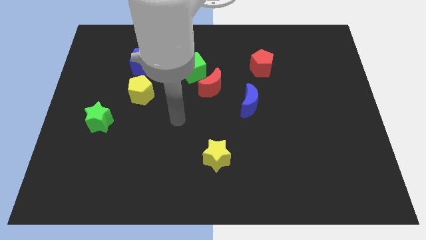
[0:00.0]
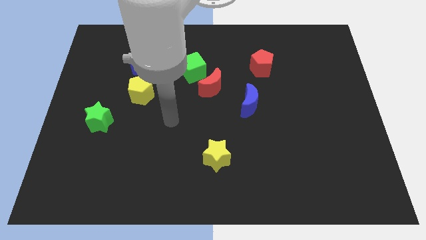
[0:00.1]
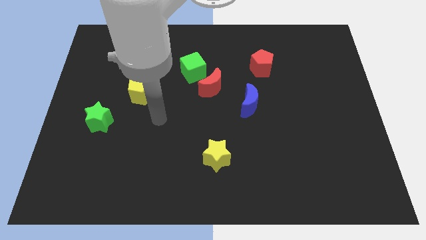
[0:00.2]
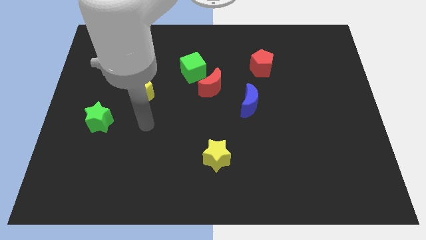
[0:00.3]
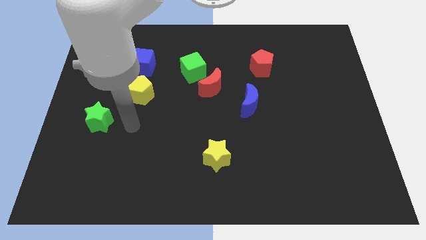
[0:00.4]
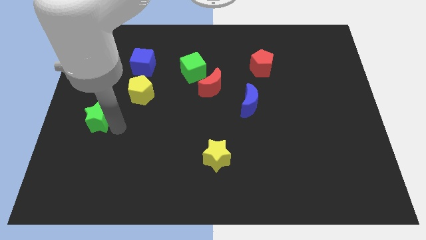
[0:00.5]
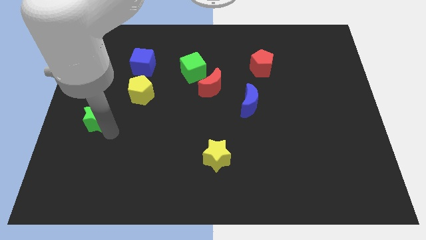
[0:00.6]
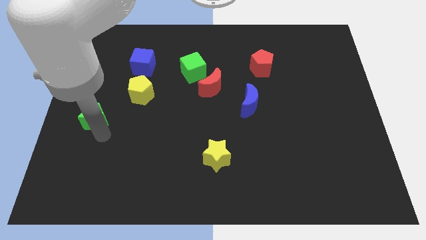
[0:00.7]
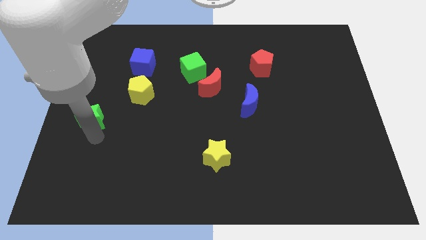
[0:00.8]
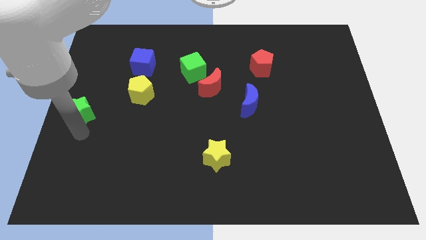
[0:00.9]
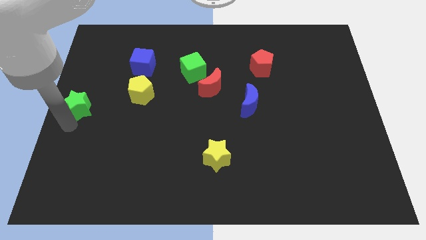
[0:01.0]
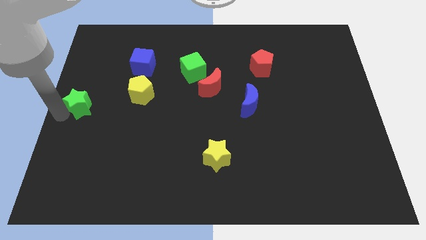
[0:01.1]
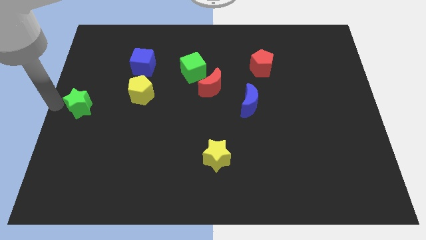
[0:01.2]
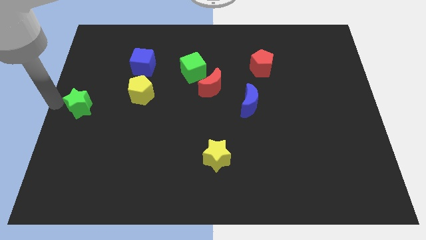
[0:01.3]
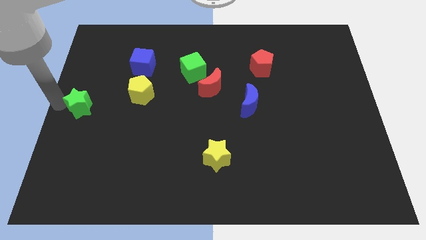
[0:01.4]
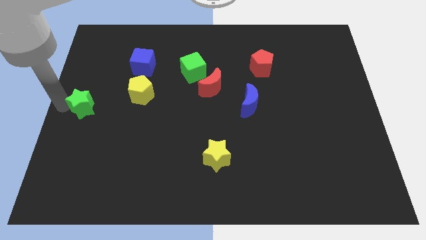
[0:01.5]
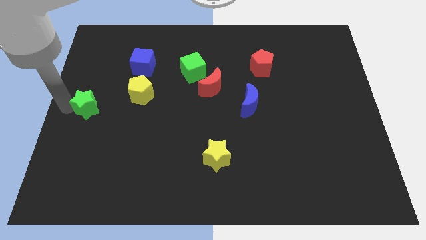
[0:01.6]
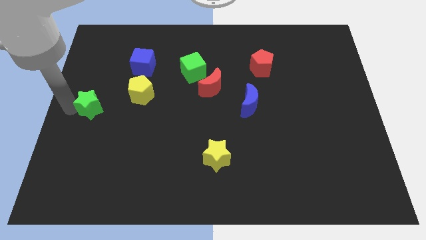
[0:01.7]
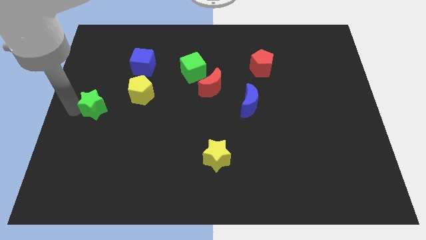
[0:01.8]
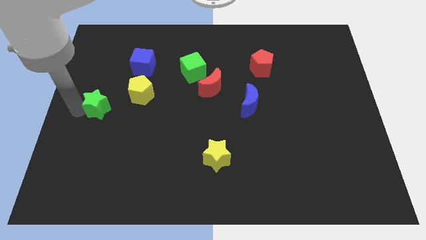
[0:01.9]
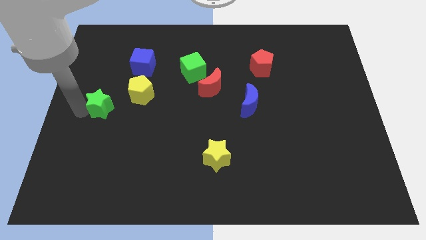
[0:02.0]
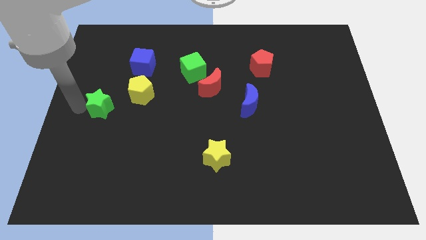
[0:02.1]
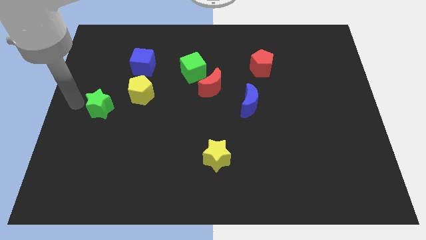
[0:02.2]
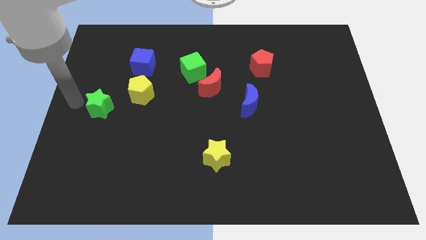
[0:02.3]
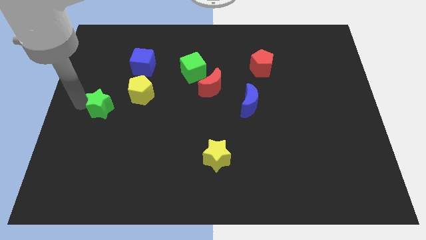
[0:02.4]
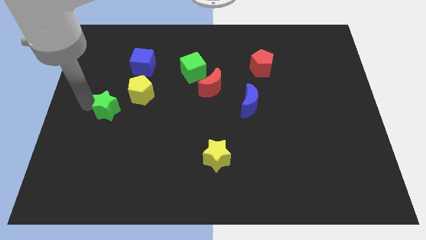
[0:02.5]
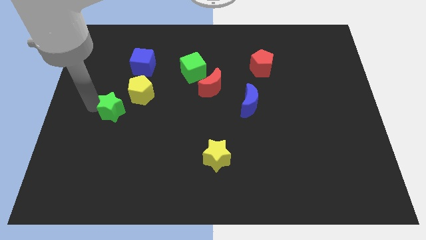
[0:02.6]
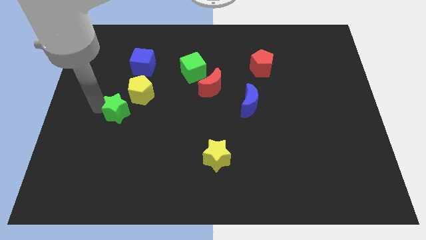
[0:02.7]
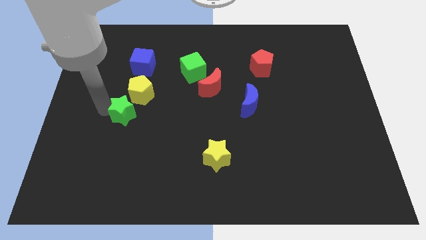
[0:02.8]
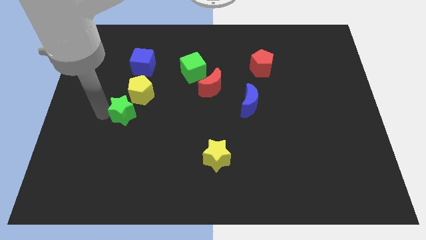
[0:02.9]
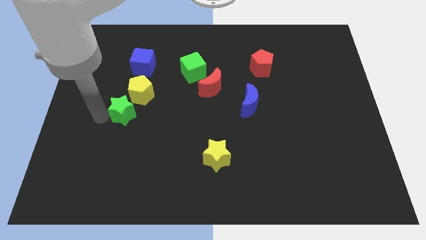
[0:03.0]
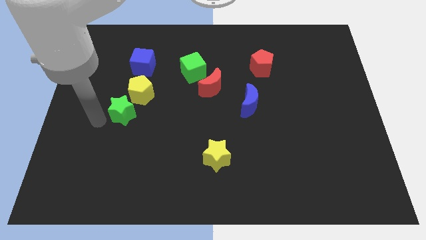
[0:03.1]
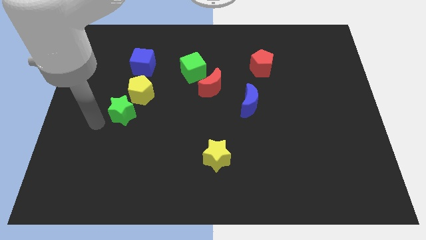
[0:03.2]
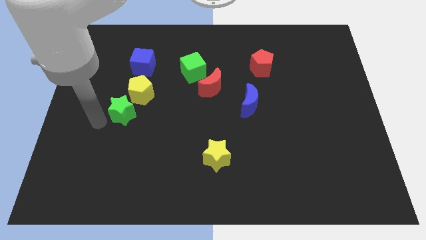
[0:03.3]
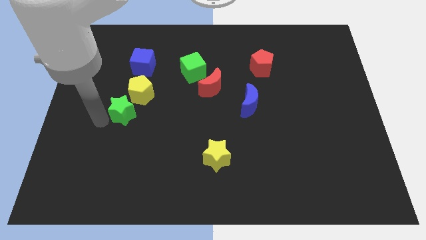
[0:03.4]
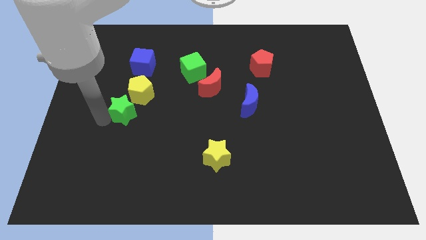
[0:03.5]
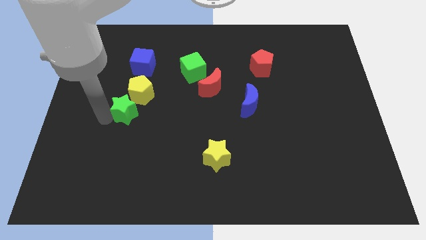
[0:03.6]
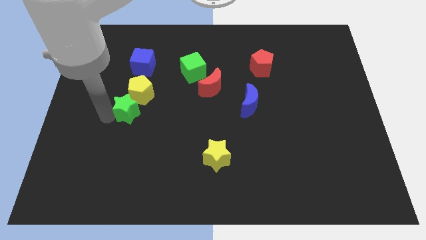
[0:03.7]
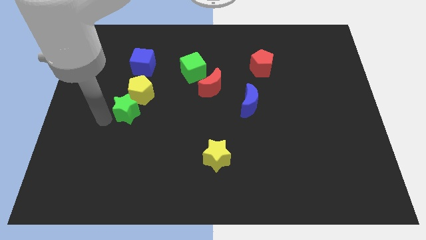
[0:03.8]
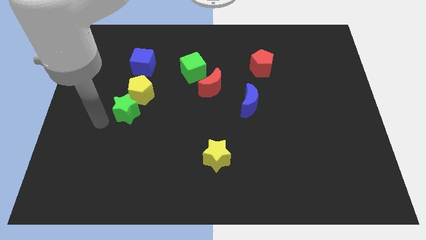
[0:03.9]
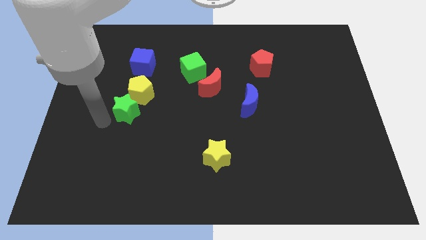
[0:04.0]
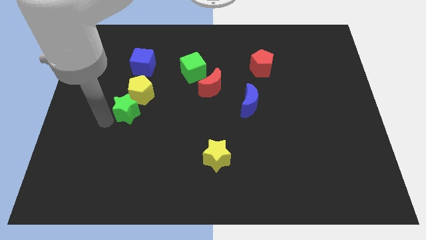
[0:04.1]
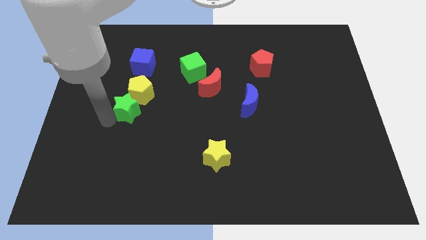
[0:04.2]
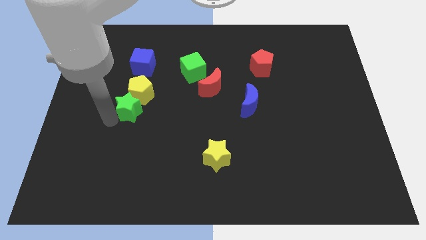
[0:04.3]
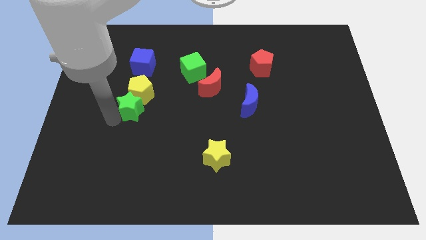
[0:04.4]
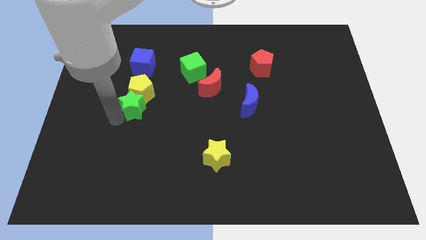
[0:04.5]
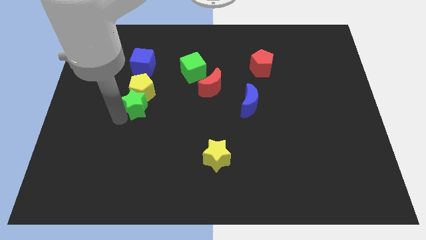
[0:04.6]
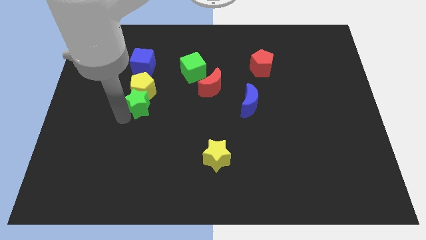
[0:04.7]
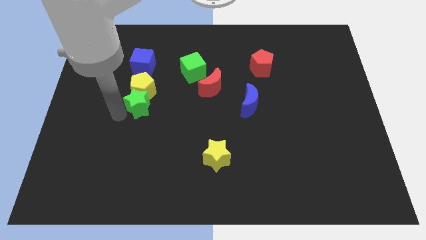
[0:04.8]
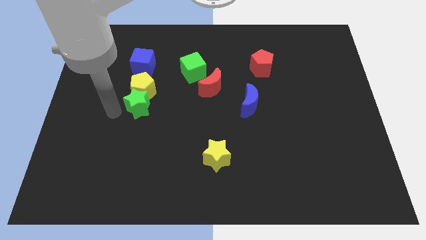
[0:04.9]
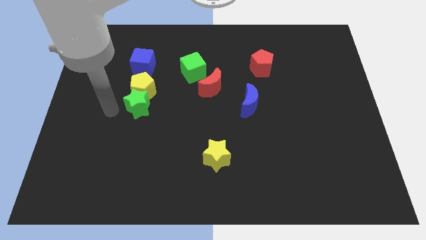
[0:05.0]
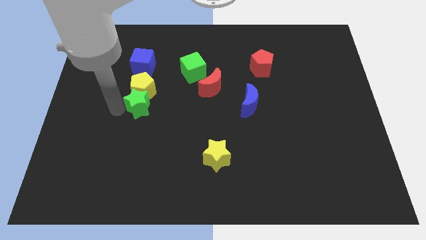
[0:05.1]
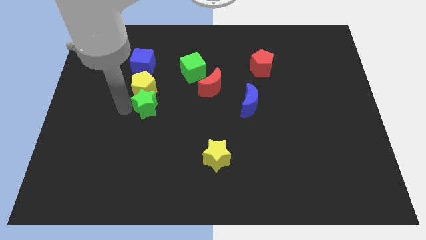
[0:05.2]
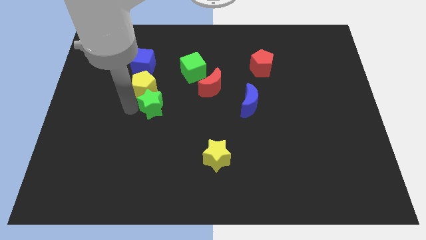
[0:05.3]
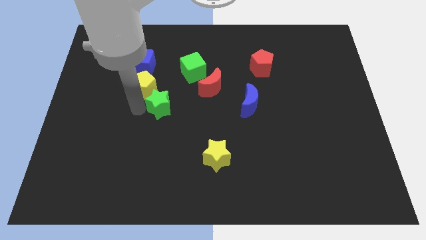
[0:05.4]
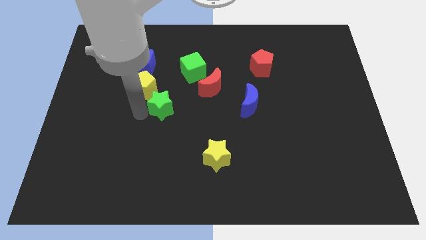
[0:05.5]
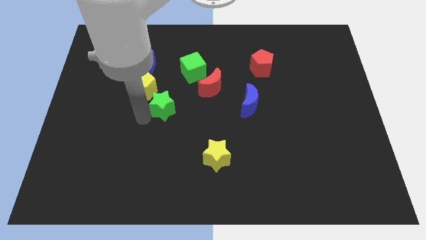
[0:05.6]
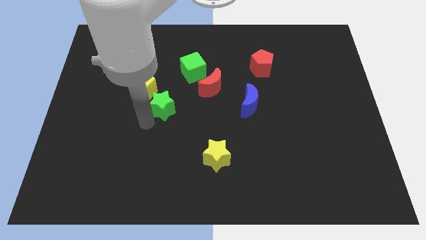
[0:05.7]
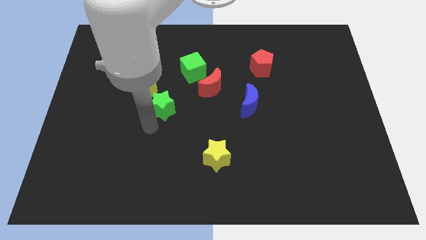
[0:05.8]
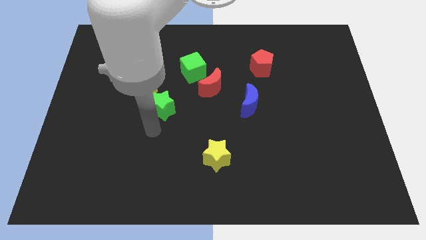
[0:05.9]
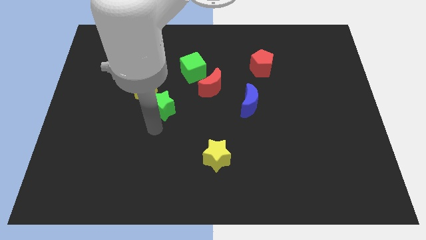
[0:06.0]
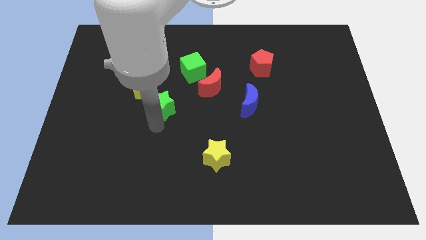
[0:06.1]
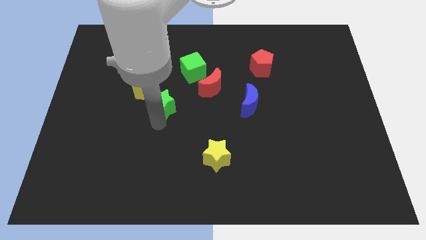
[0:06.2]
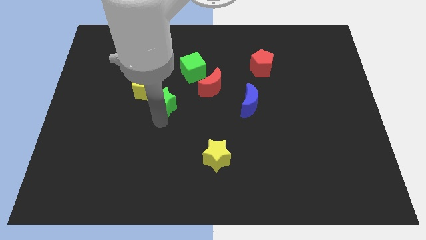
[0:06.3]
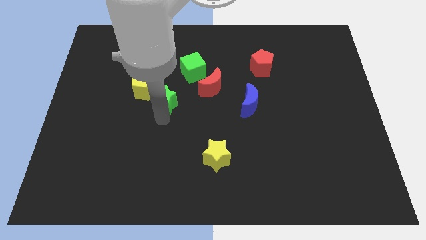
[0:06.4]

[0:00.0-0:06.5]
move the green star diagonally down and to the left of the green cube

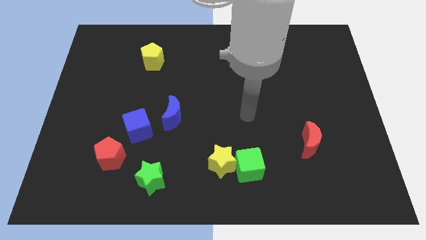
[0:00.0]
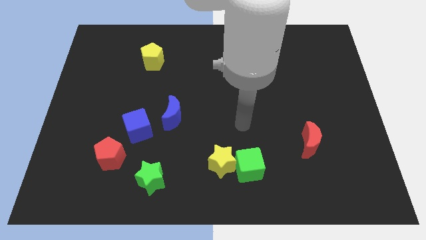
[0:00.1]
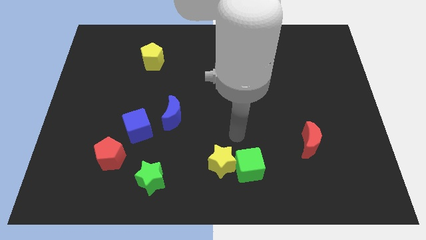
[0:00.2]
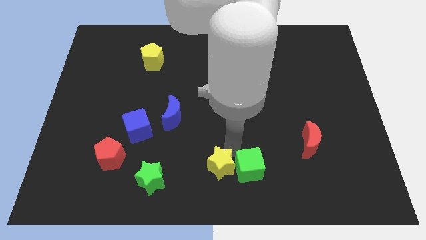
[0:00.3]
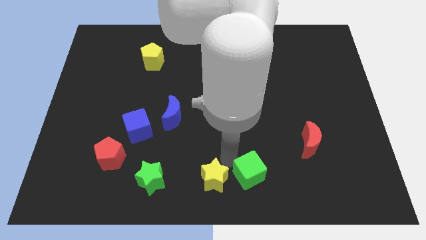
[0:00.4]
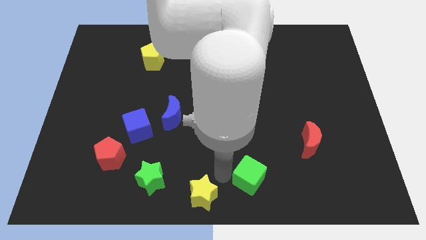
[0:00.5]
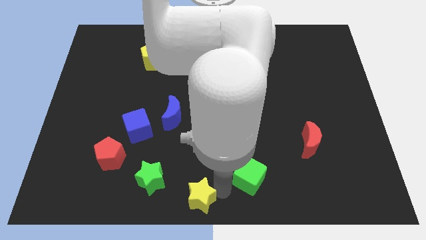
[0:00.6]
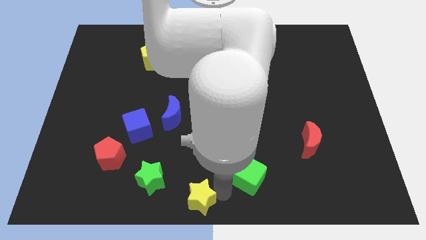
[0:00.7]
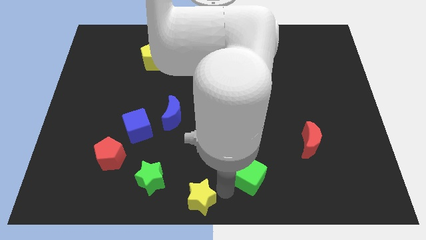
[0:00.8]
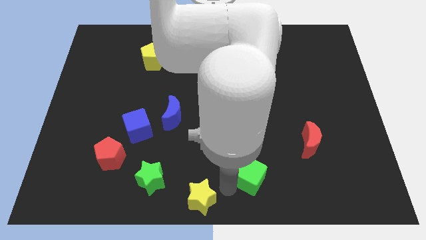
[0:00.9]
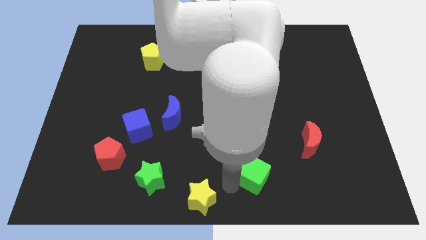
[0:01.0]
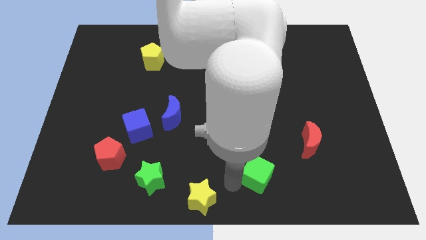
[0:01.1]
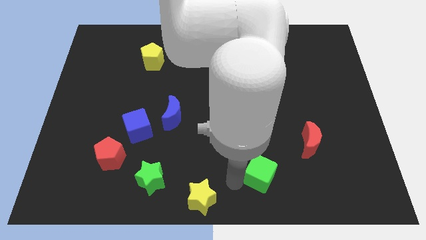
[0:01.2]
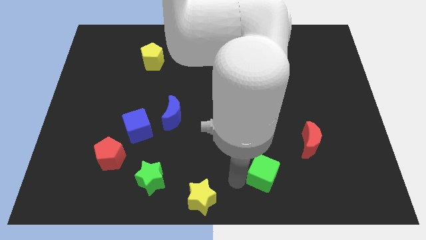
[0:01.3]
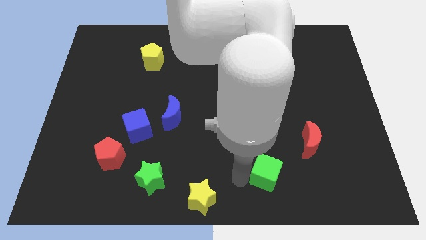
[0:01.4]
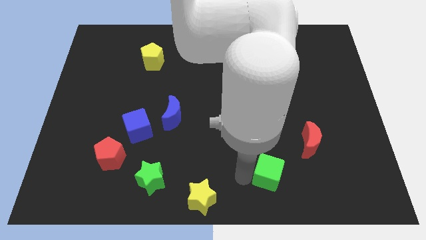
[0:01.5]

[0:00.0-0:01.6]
push the green cube to the bottom left side of the red moon

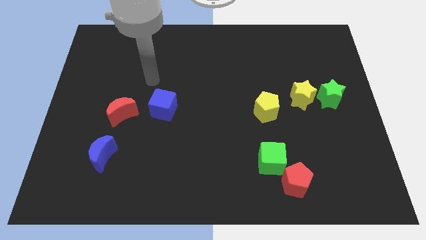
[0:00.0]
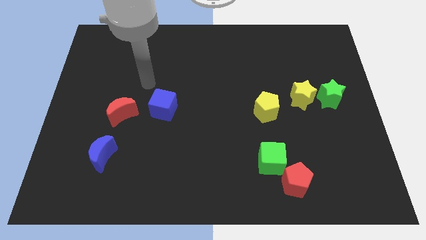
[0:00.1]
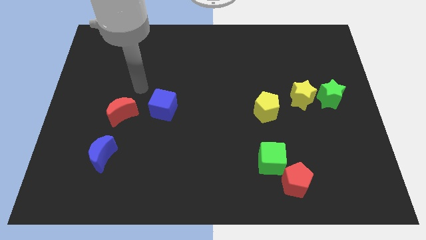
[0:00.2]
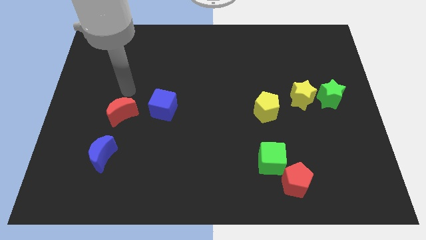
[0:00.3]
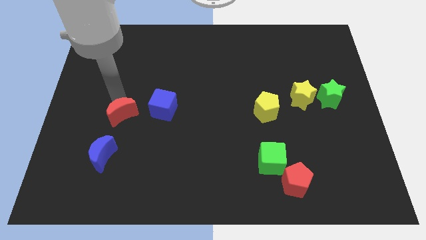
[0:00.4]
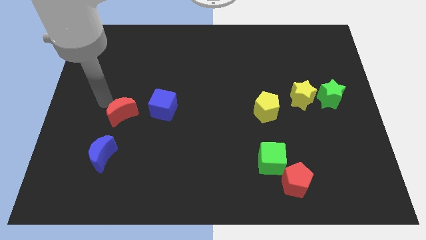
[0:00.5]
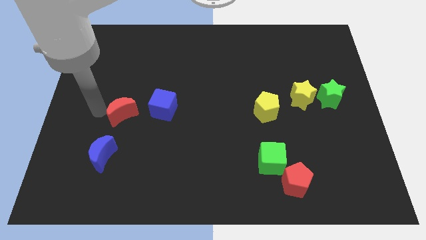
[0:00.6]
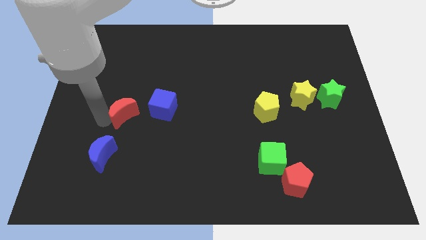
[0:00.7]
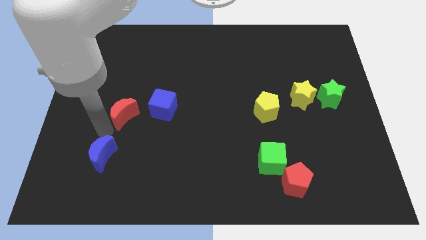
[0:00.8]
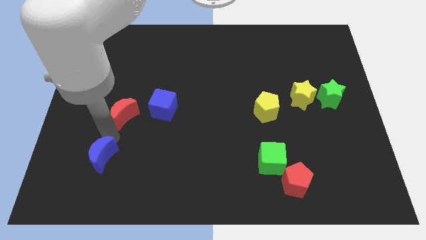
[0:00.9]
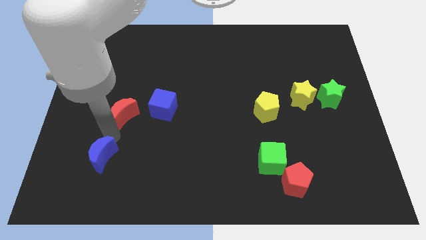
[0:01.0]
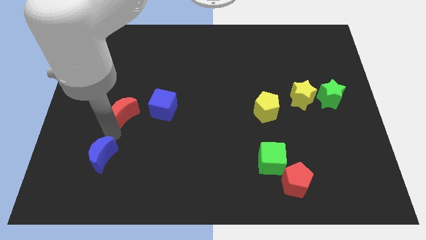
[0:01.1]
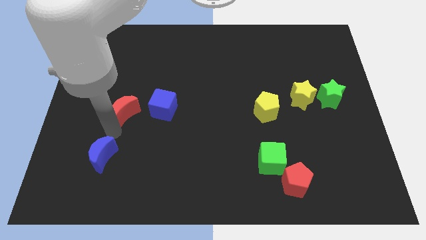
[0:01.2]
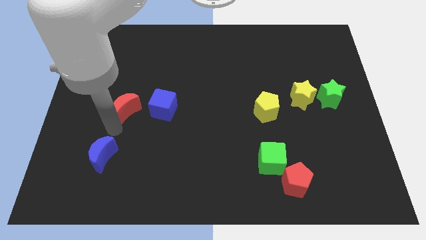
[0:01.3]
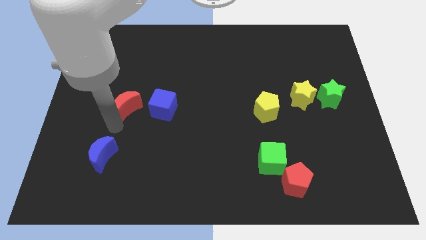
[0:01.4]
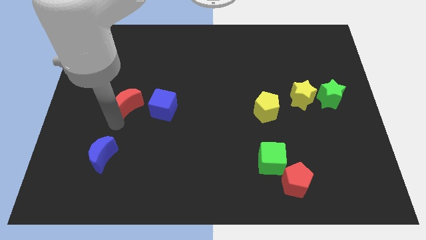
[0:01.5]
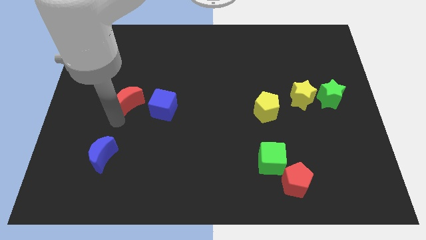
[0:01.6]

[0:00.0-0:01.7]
push the red moon to the top left side of the blue cube
